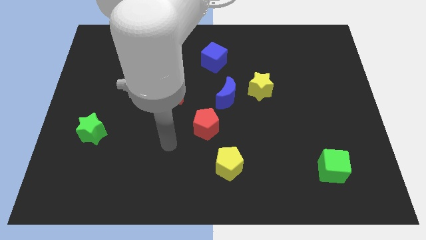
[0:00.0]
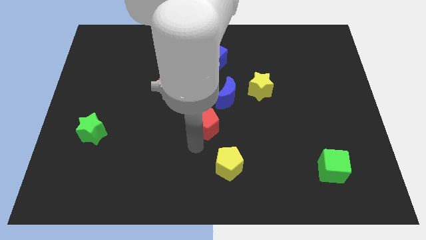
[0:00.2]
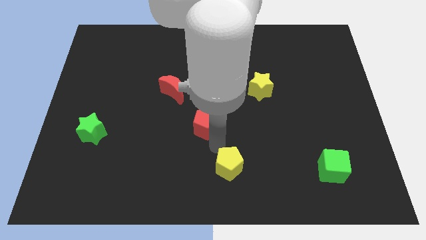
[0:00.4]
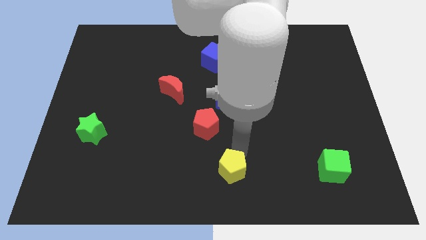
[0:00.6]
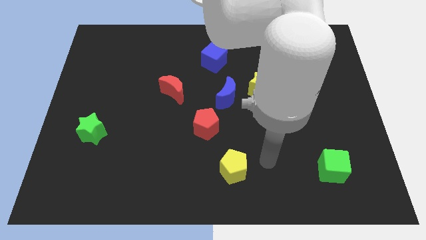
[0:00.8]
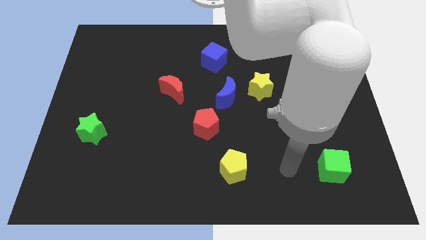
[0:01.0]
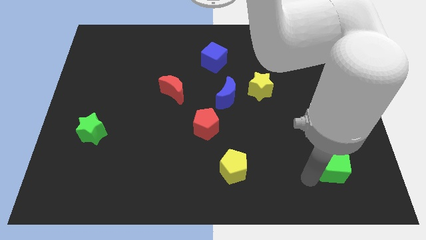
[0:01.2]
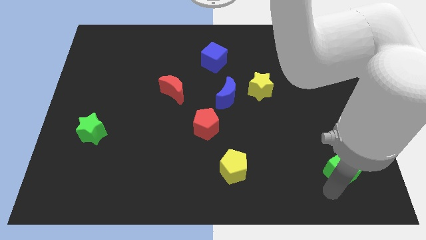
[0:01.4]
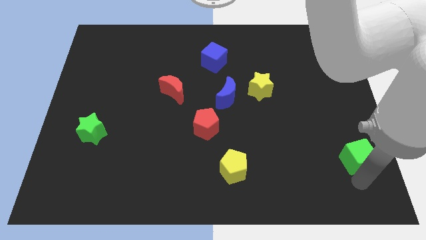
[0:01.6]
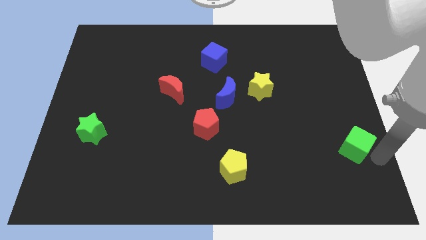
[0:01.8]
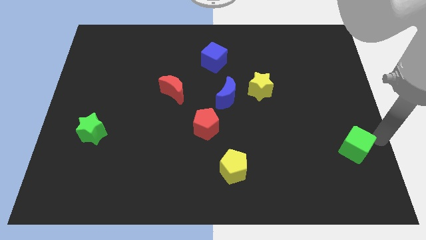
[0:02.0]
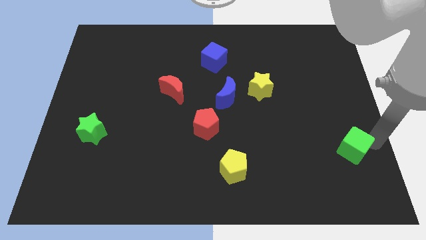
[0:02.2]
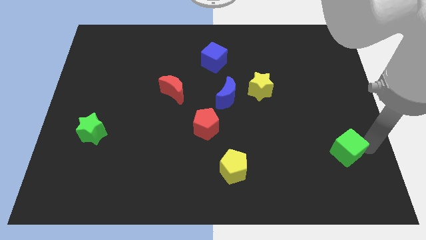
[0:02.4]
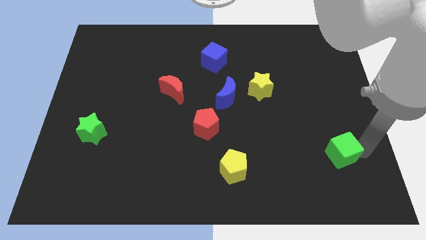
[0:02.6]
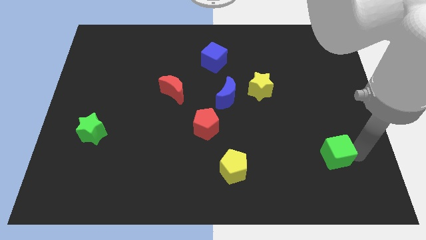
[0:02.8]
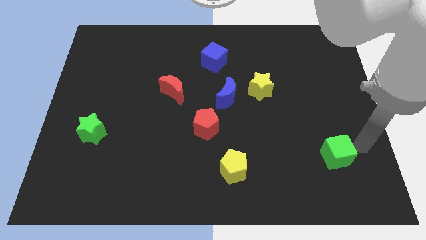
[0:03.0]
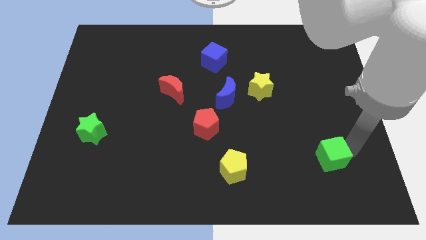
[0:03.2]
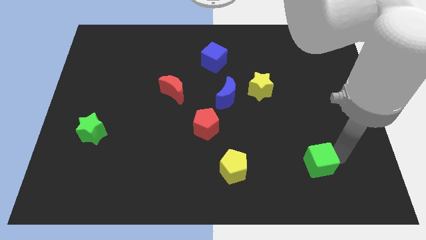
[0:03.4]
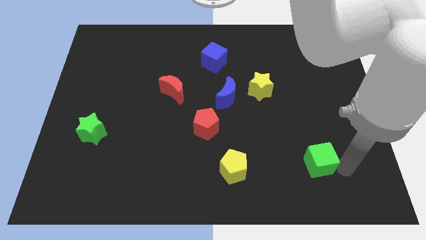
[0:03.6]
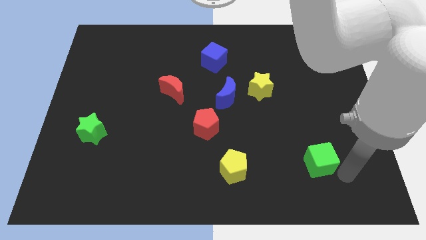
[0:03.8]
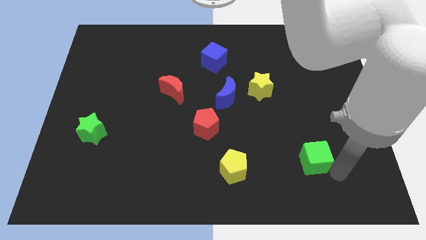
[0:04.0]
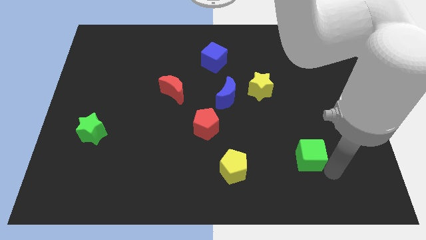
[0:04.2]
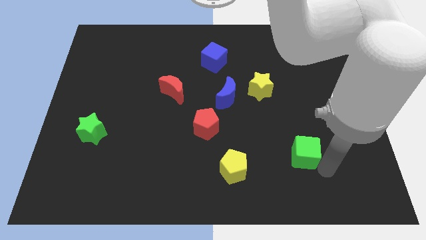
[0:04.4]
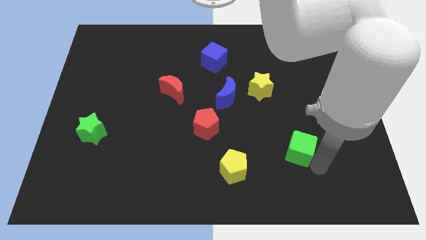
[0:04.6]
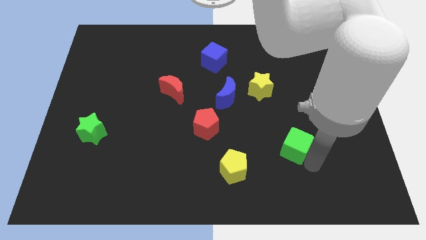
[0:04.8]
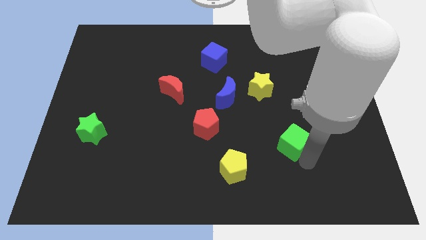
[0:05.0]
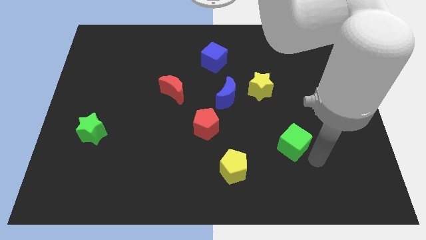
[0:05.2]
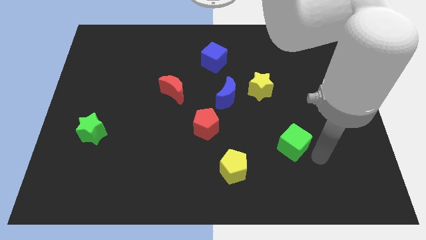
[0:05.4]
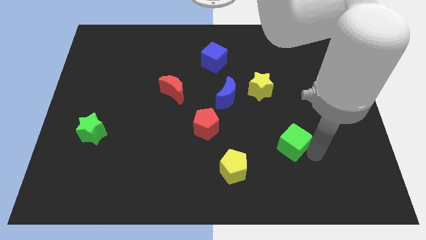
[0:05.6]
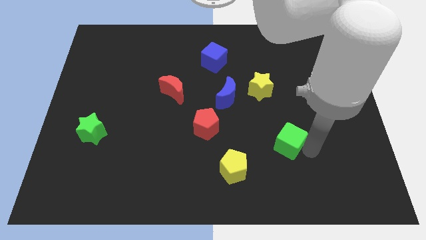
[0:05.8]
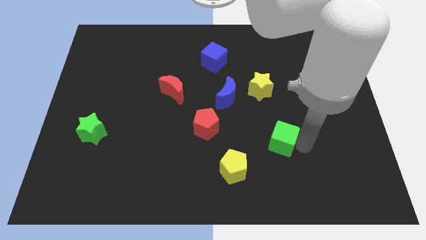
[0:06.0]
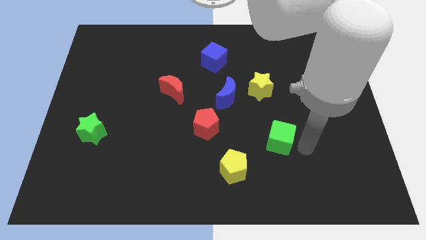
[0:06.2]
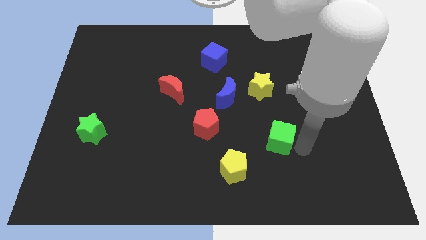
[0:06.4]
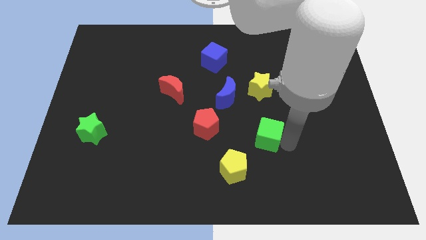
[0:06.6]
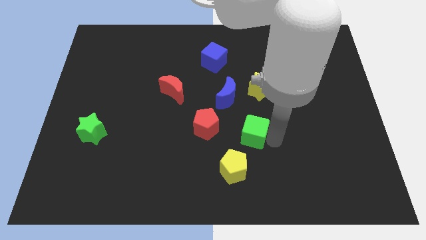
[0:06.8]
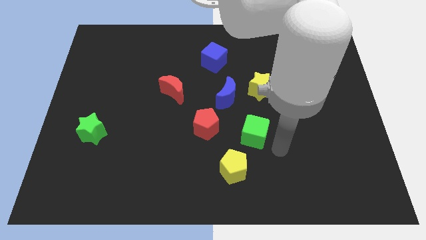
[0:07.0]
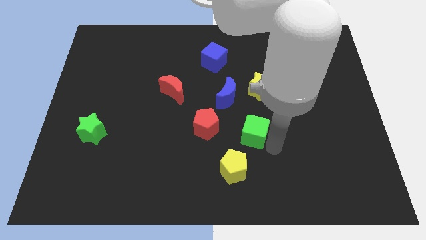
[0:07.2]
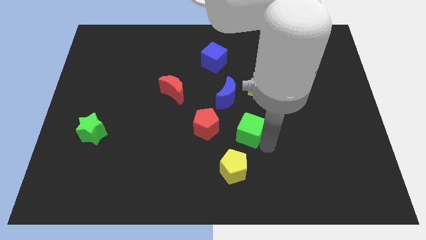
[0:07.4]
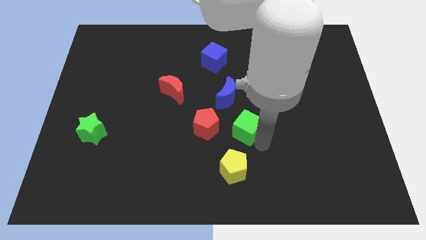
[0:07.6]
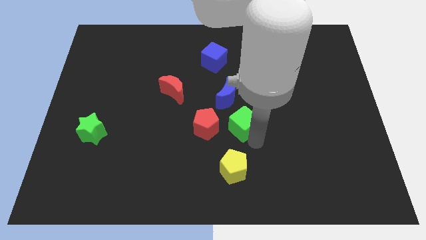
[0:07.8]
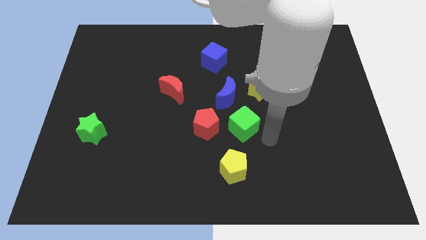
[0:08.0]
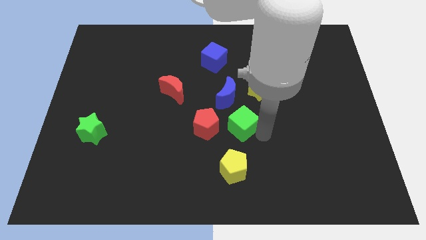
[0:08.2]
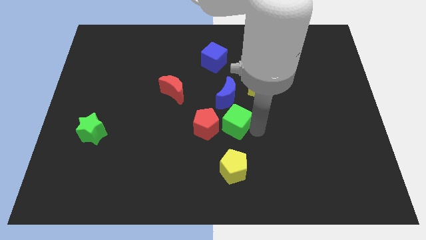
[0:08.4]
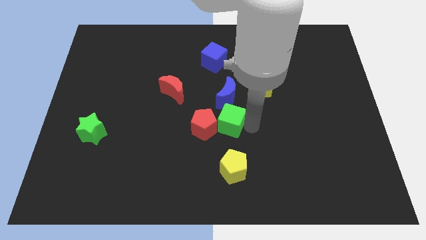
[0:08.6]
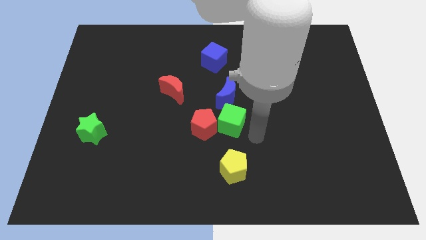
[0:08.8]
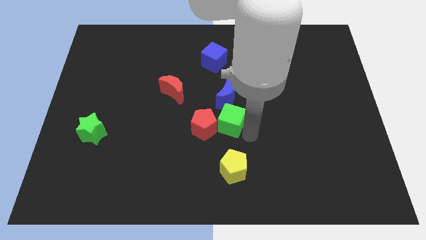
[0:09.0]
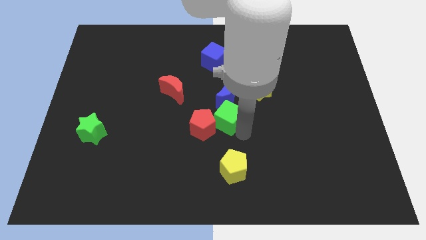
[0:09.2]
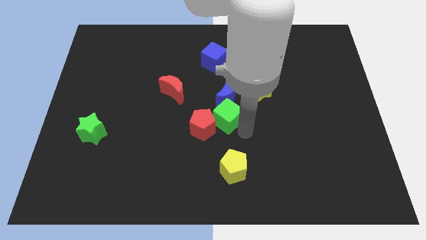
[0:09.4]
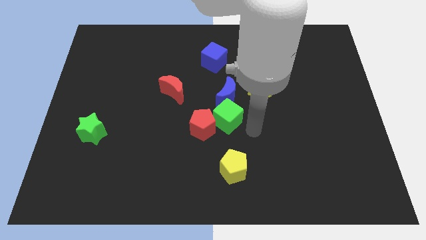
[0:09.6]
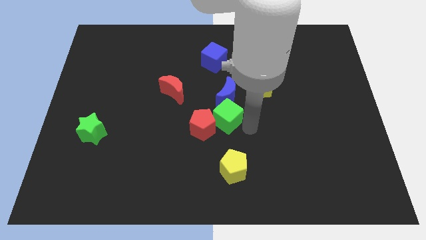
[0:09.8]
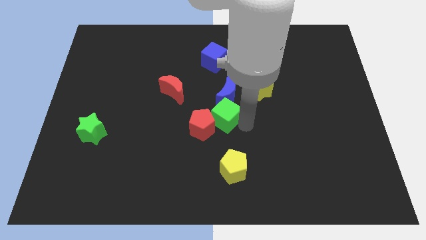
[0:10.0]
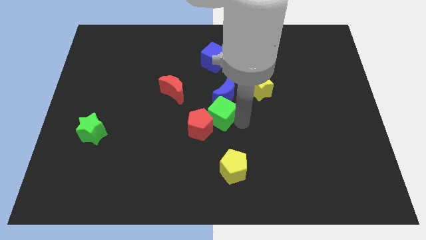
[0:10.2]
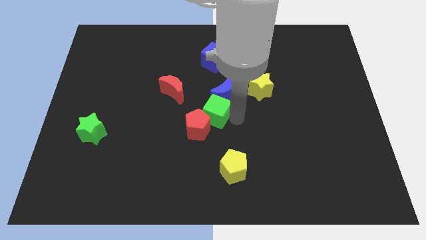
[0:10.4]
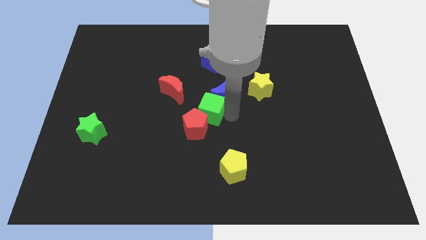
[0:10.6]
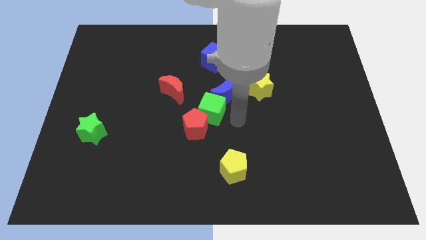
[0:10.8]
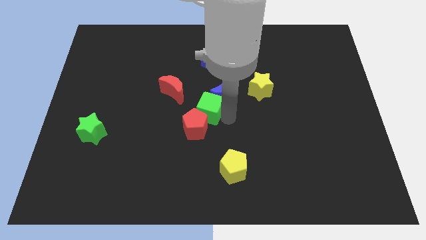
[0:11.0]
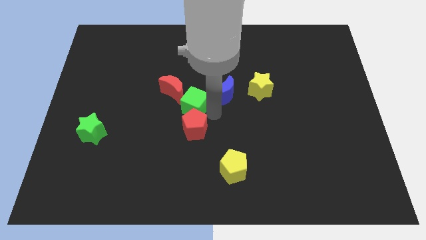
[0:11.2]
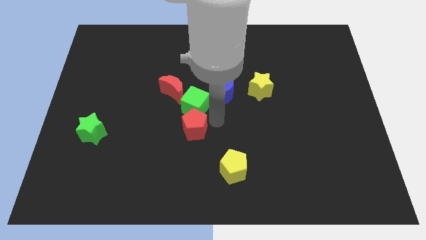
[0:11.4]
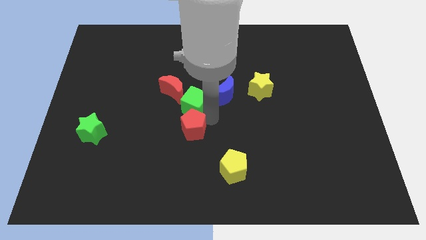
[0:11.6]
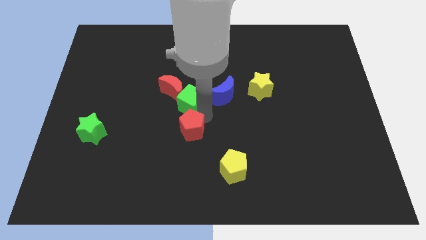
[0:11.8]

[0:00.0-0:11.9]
put the green cube next to the red moon

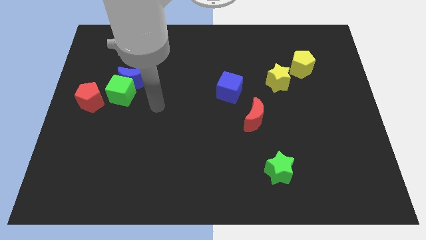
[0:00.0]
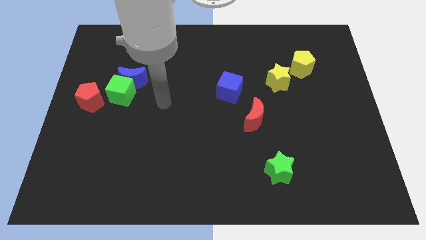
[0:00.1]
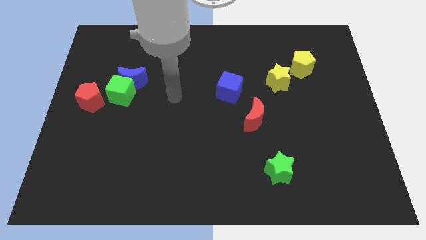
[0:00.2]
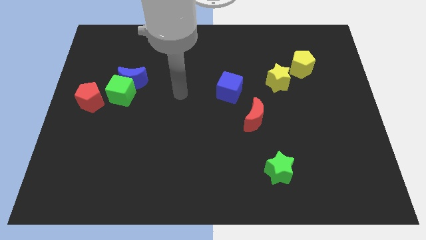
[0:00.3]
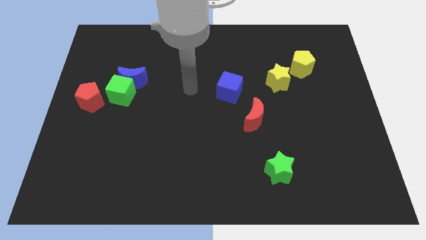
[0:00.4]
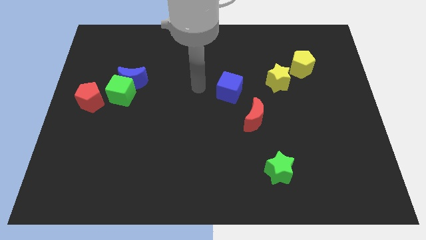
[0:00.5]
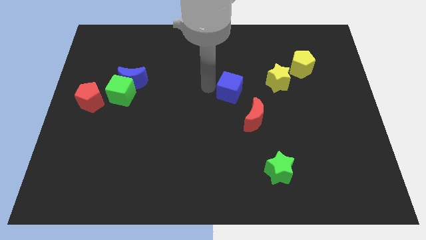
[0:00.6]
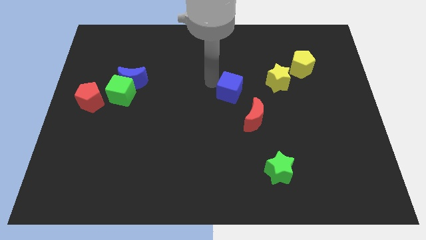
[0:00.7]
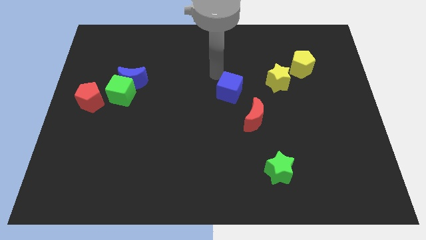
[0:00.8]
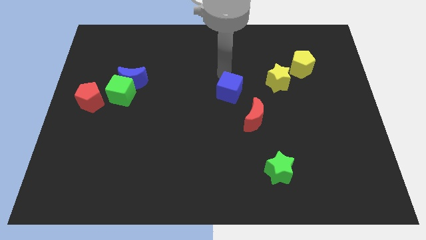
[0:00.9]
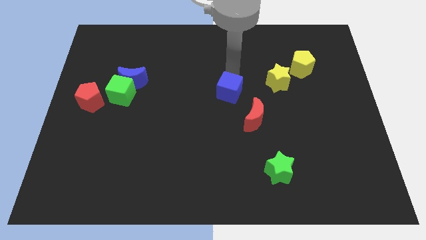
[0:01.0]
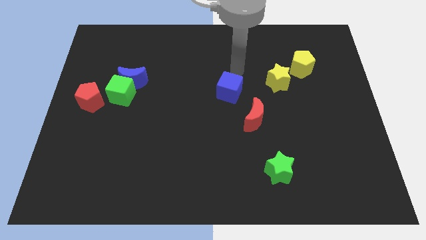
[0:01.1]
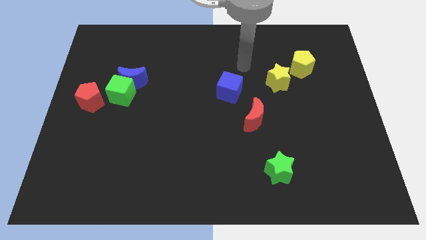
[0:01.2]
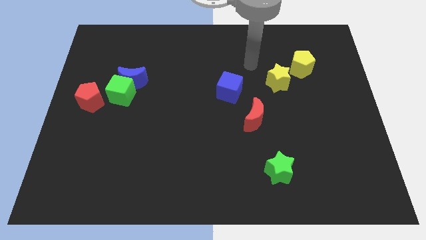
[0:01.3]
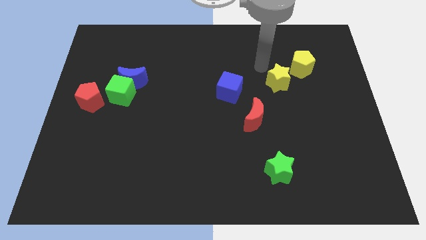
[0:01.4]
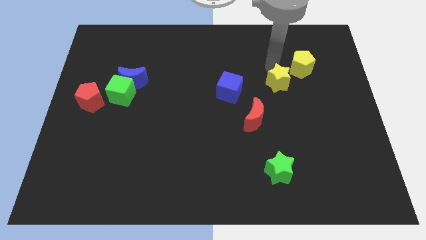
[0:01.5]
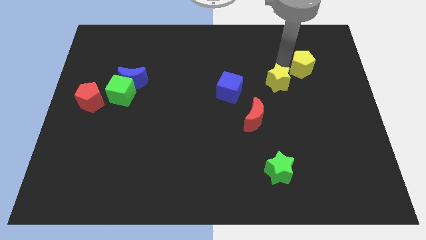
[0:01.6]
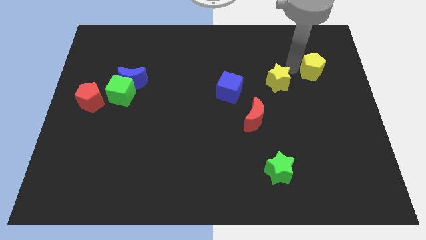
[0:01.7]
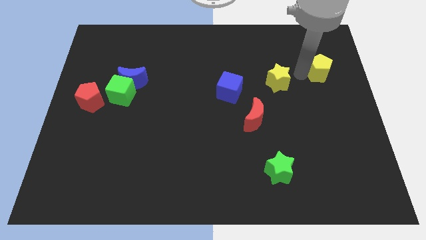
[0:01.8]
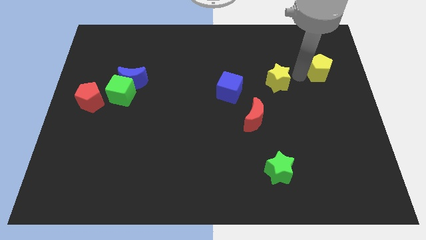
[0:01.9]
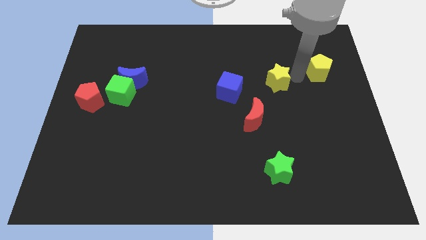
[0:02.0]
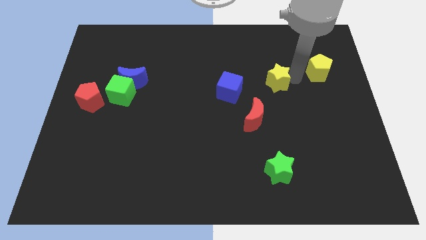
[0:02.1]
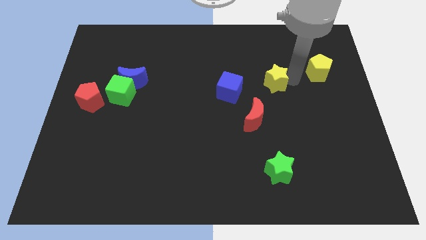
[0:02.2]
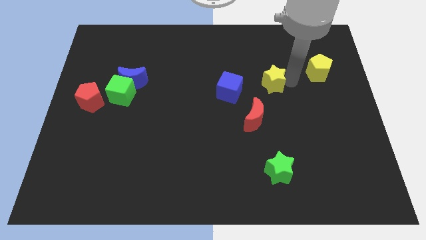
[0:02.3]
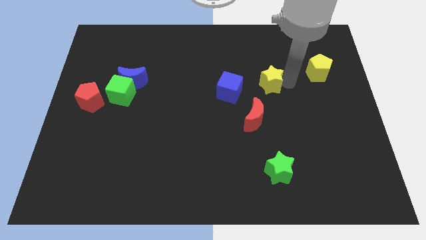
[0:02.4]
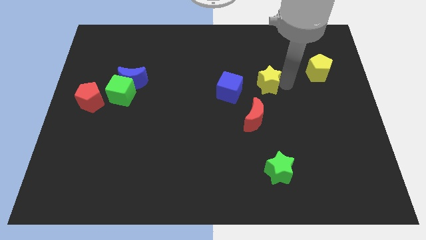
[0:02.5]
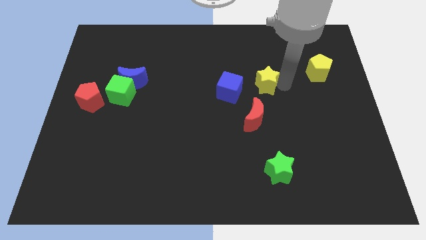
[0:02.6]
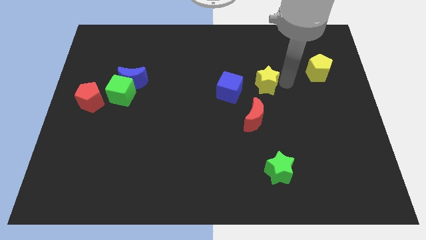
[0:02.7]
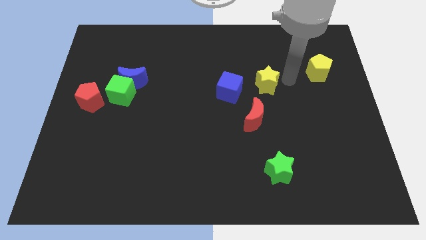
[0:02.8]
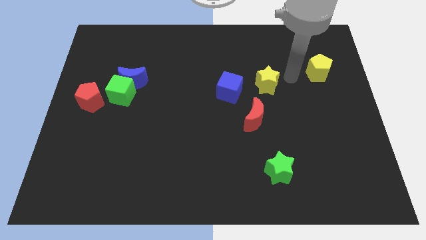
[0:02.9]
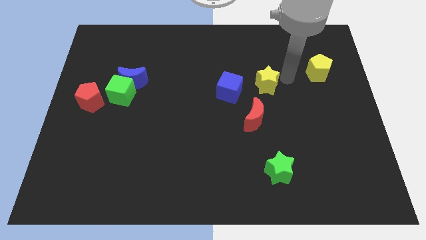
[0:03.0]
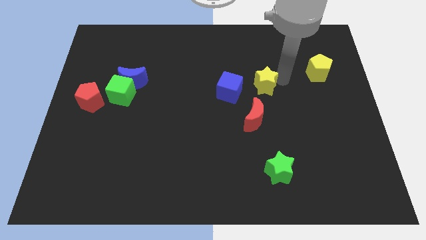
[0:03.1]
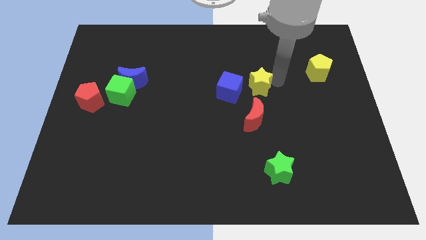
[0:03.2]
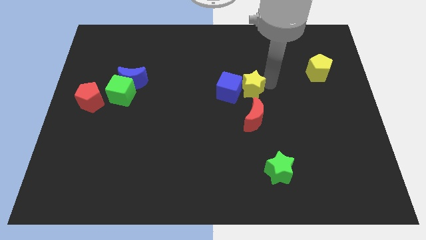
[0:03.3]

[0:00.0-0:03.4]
slide the yellow star close to the blue cube
